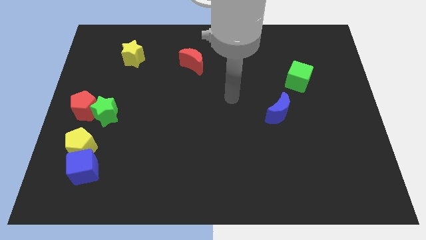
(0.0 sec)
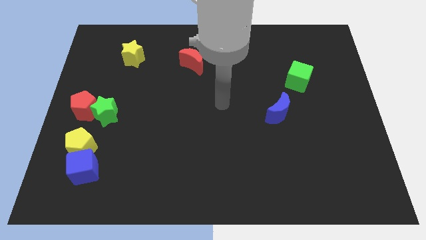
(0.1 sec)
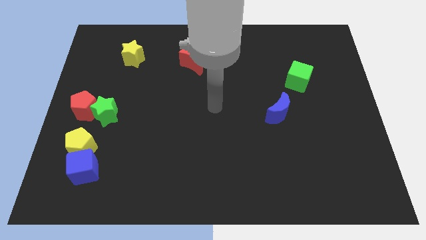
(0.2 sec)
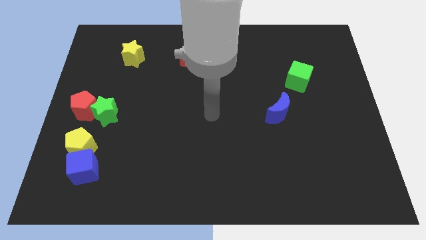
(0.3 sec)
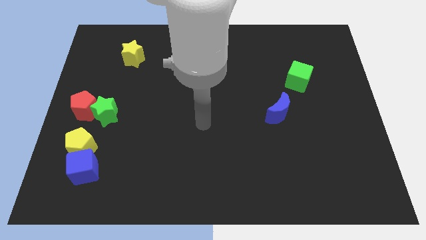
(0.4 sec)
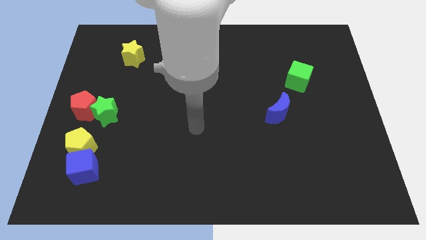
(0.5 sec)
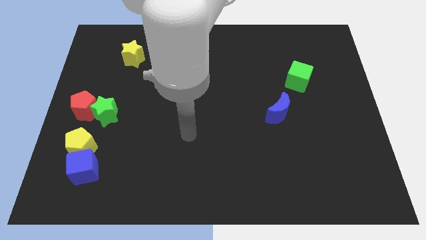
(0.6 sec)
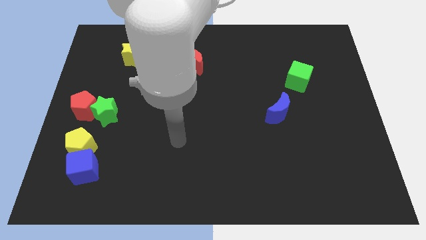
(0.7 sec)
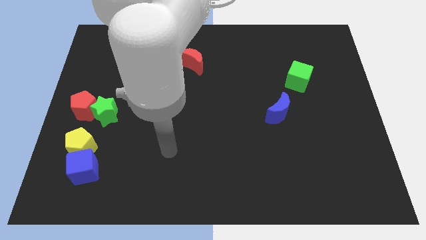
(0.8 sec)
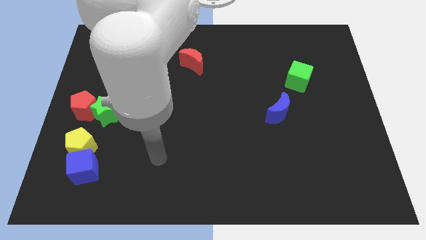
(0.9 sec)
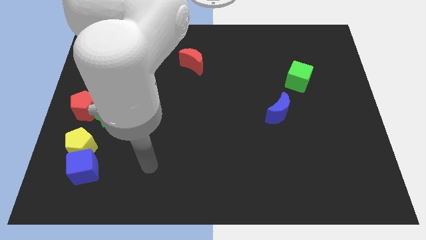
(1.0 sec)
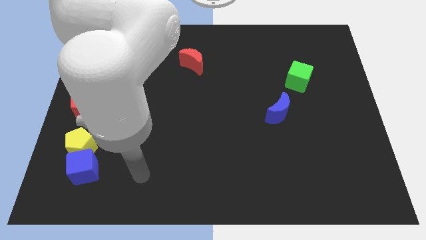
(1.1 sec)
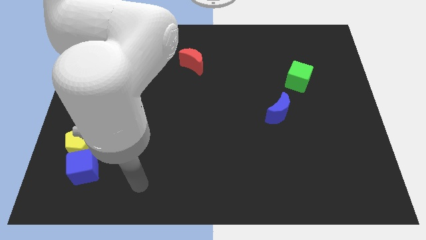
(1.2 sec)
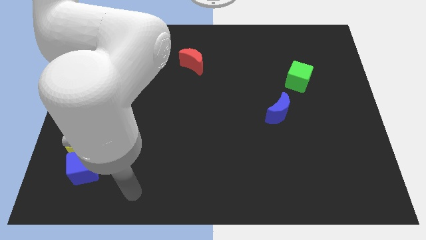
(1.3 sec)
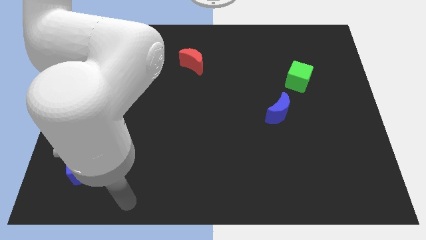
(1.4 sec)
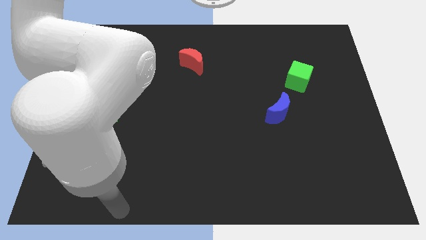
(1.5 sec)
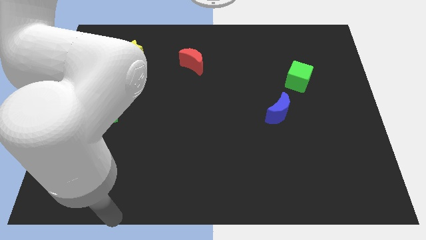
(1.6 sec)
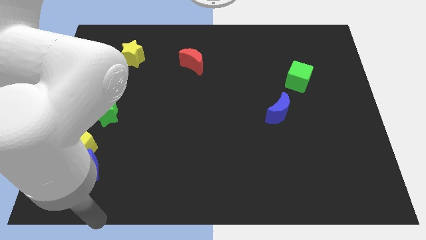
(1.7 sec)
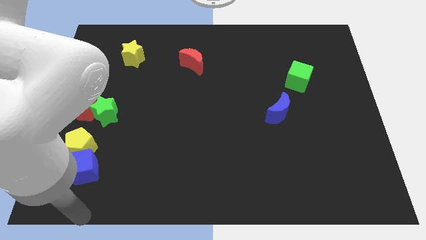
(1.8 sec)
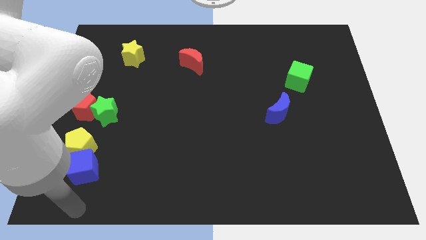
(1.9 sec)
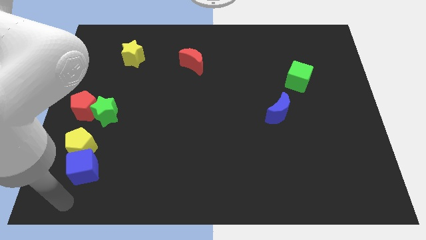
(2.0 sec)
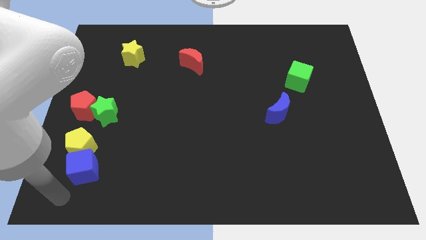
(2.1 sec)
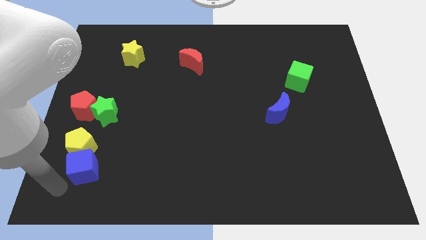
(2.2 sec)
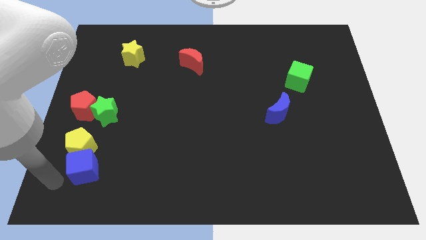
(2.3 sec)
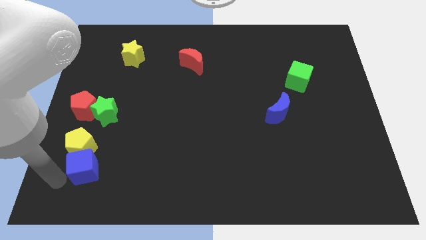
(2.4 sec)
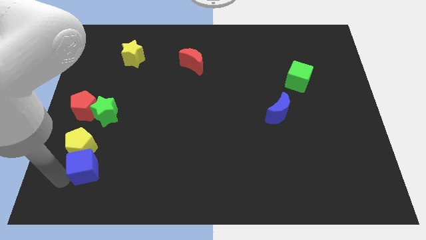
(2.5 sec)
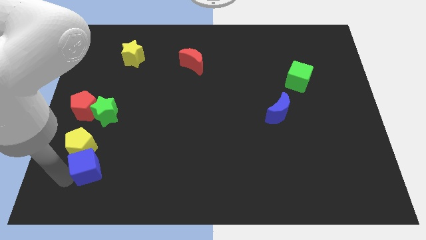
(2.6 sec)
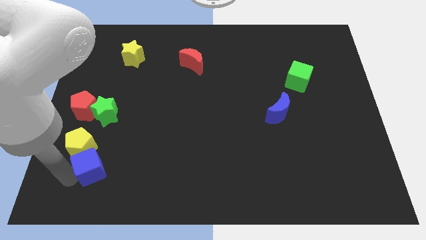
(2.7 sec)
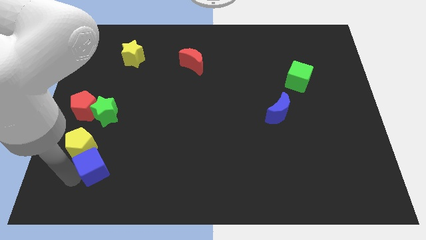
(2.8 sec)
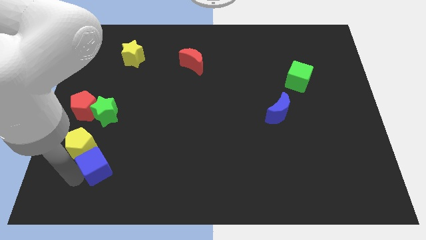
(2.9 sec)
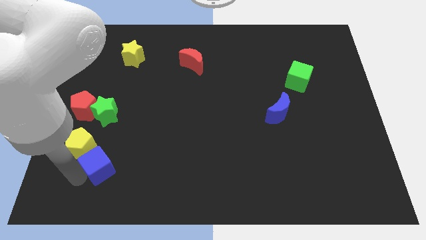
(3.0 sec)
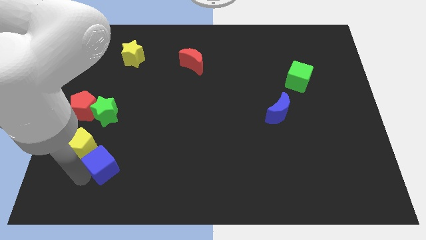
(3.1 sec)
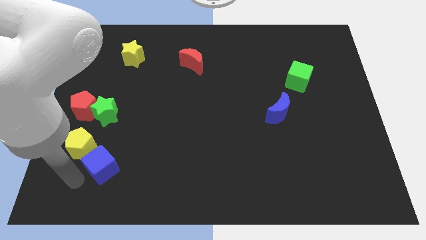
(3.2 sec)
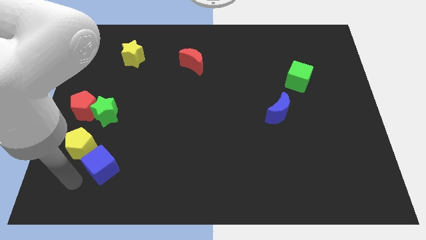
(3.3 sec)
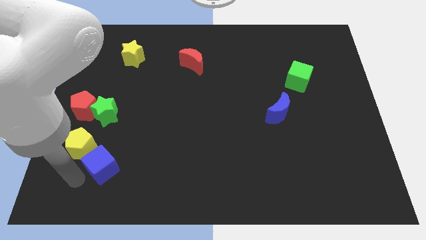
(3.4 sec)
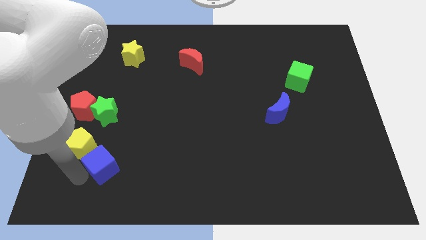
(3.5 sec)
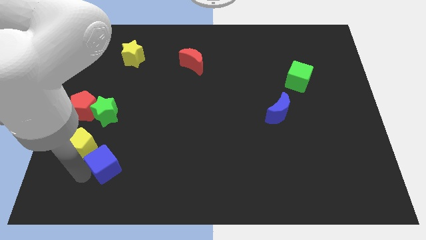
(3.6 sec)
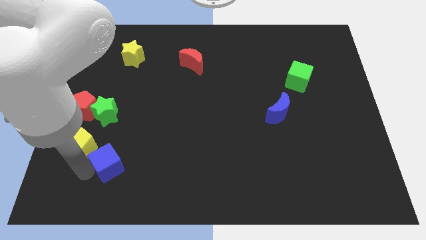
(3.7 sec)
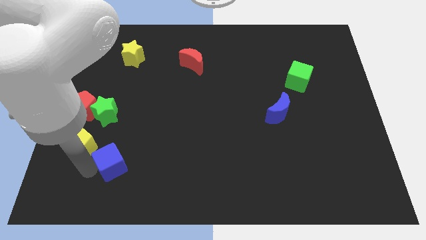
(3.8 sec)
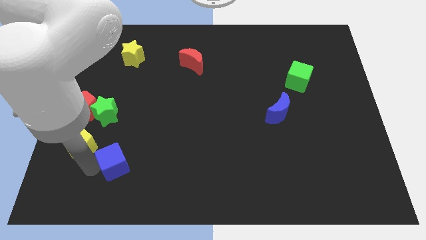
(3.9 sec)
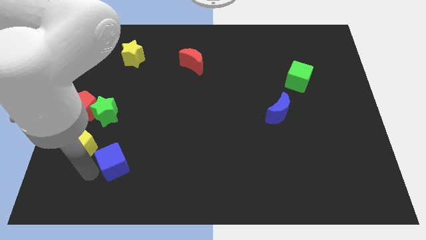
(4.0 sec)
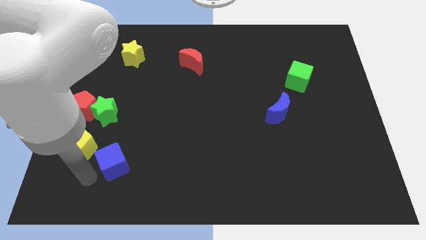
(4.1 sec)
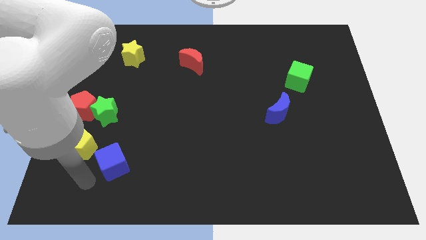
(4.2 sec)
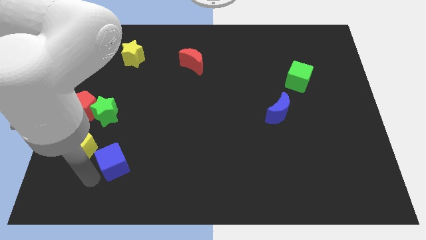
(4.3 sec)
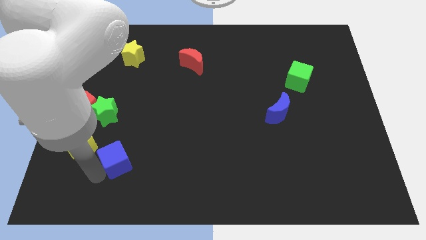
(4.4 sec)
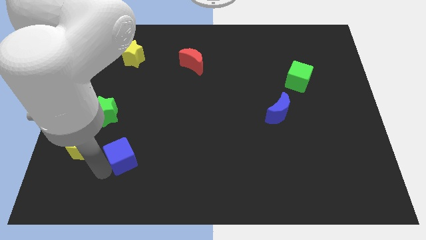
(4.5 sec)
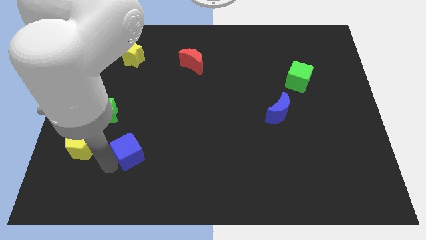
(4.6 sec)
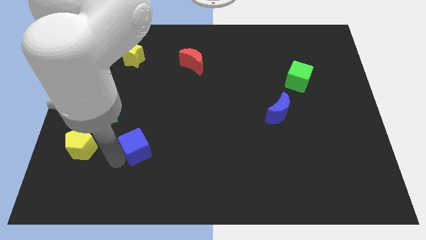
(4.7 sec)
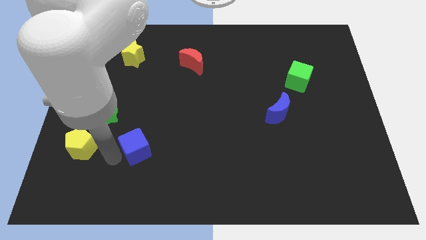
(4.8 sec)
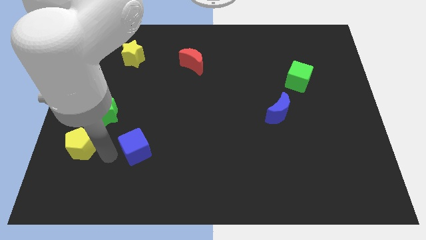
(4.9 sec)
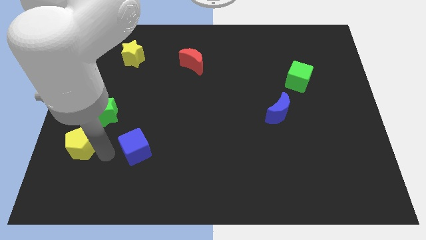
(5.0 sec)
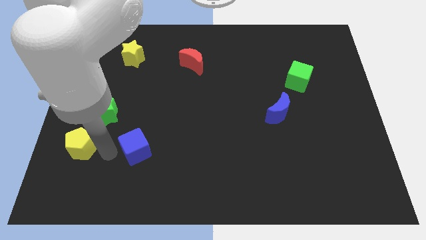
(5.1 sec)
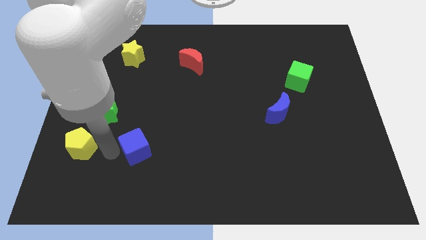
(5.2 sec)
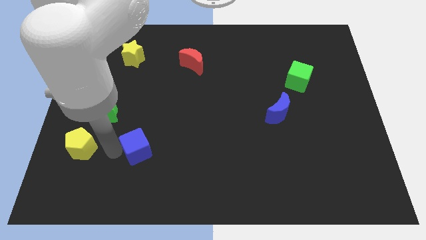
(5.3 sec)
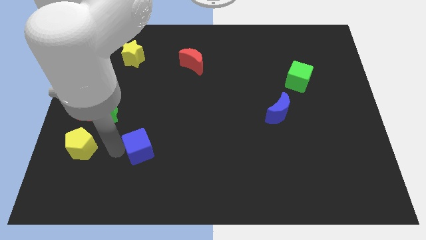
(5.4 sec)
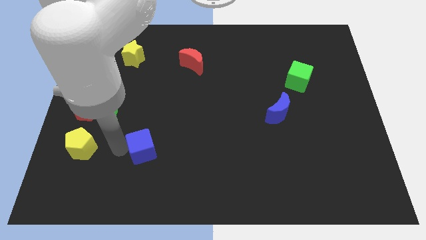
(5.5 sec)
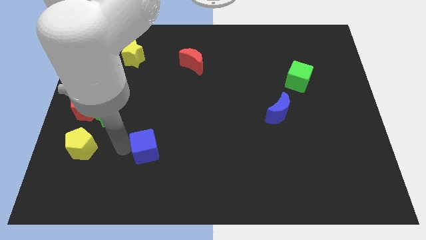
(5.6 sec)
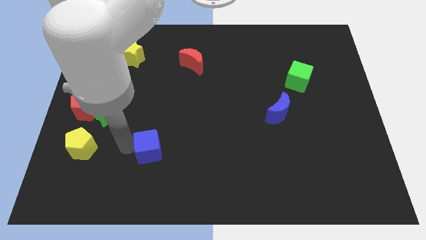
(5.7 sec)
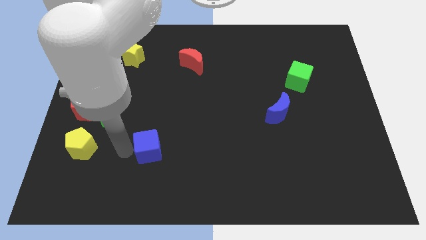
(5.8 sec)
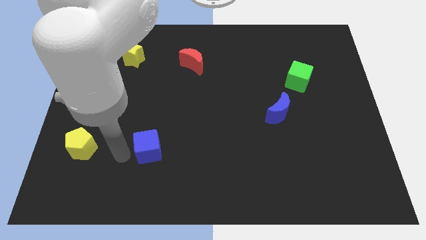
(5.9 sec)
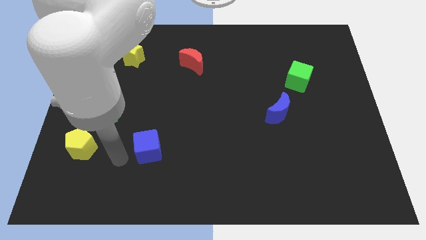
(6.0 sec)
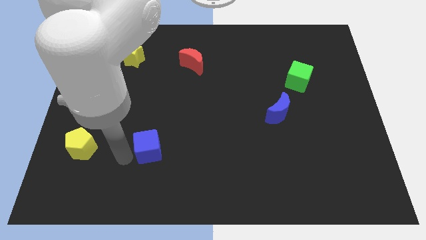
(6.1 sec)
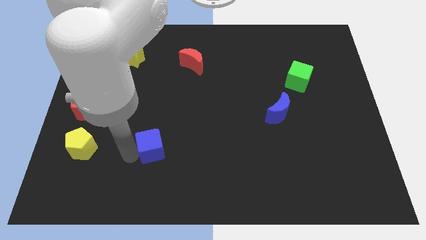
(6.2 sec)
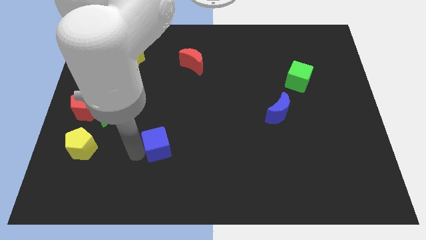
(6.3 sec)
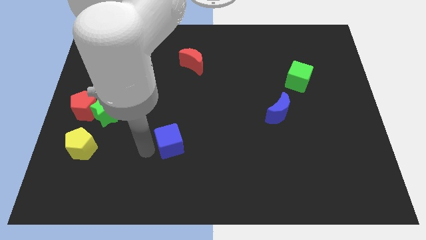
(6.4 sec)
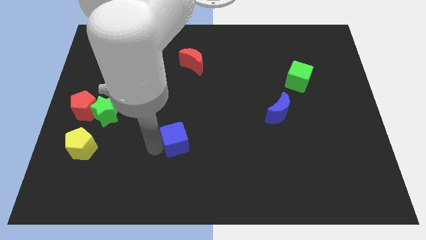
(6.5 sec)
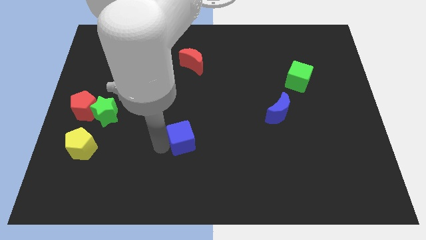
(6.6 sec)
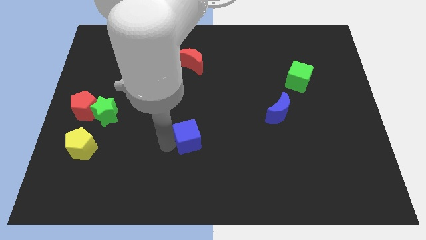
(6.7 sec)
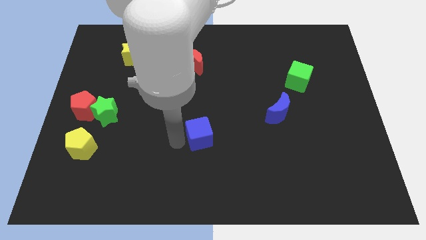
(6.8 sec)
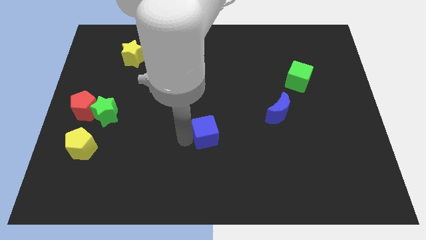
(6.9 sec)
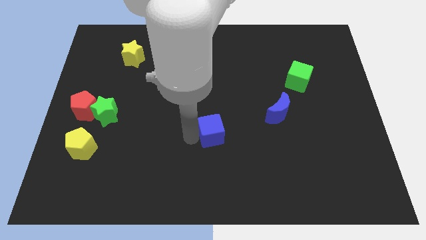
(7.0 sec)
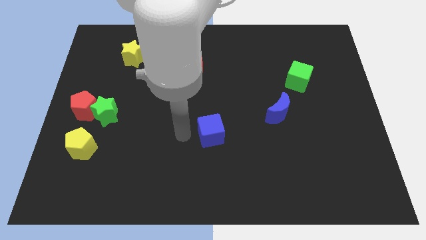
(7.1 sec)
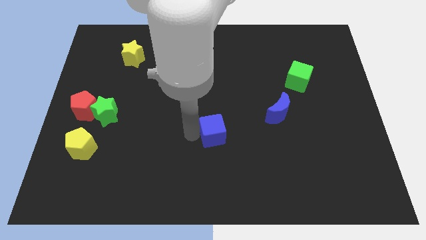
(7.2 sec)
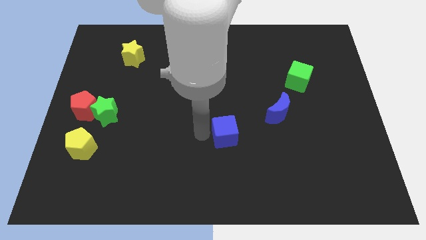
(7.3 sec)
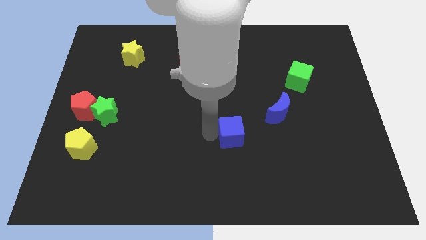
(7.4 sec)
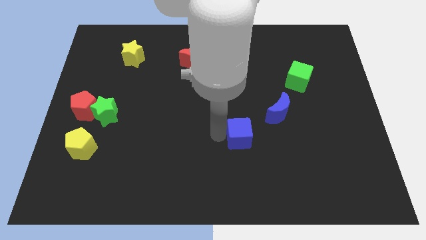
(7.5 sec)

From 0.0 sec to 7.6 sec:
put the blue cube diagonally down and to the left of the blue moon
